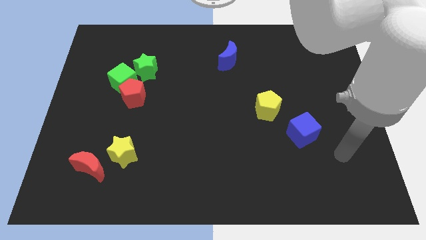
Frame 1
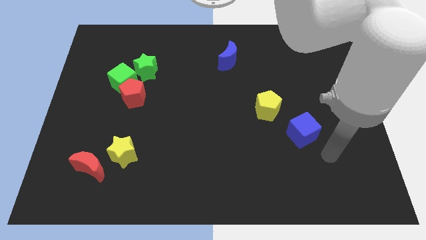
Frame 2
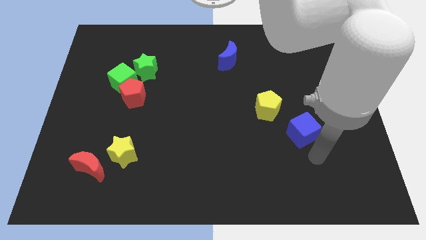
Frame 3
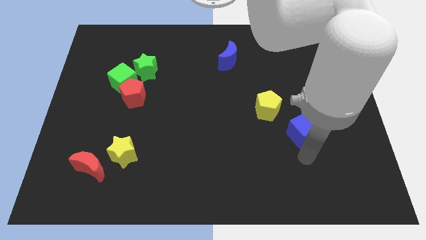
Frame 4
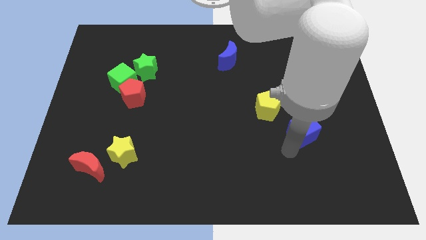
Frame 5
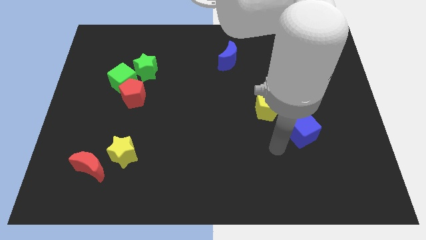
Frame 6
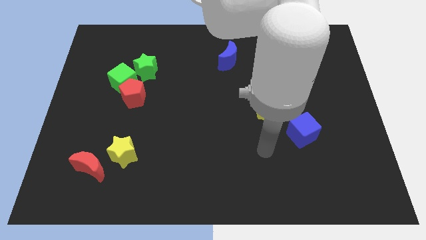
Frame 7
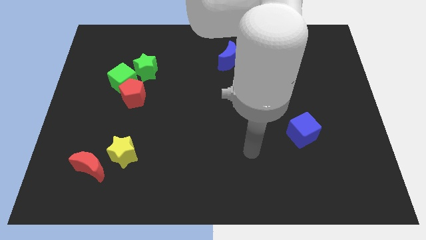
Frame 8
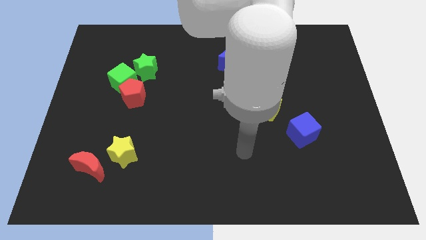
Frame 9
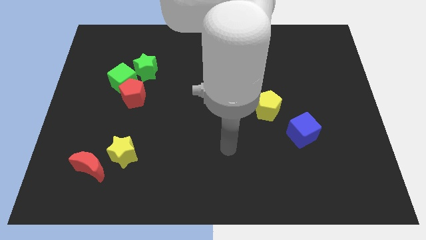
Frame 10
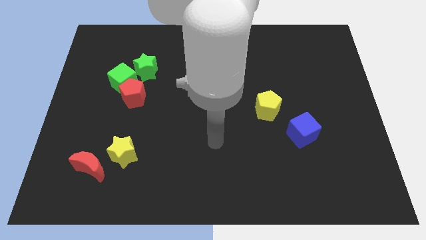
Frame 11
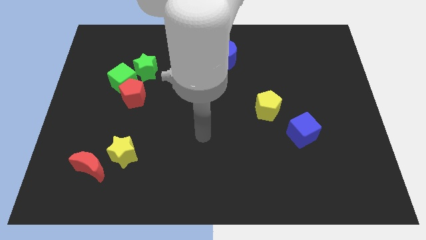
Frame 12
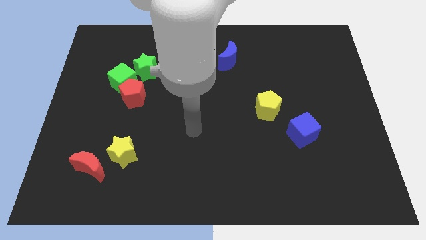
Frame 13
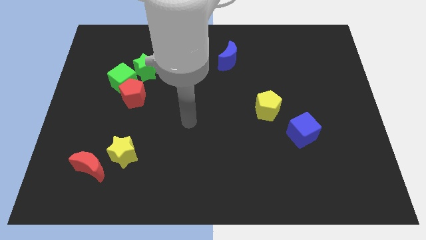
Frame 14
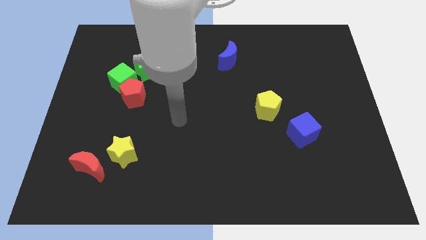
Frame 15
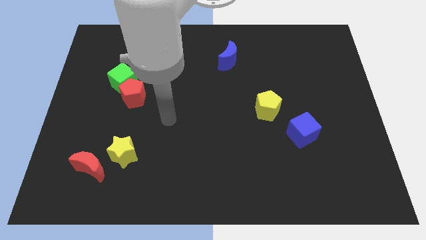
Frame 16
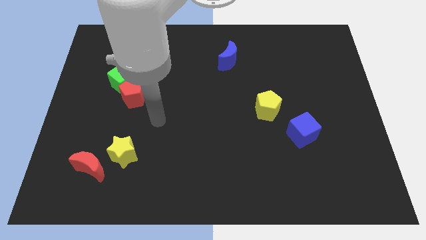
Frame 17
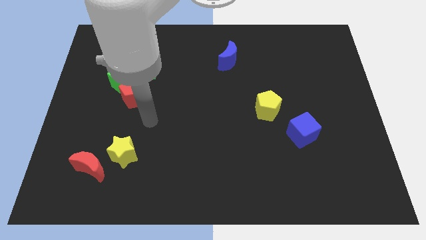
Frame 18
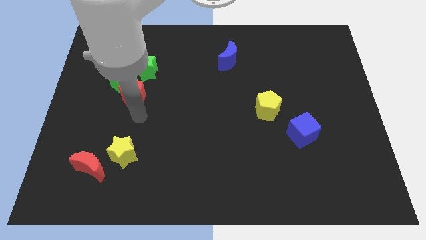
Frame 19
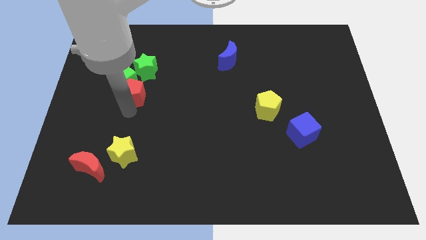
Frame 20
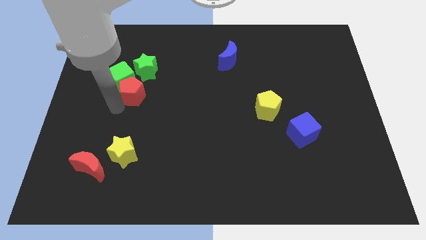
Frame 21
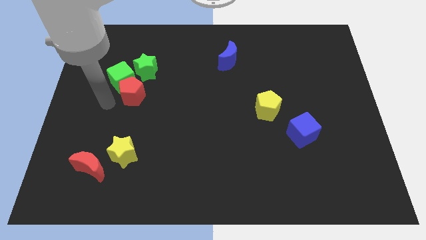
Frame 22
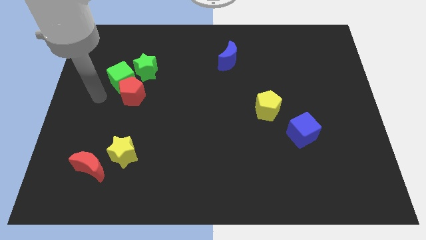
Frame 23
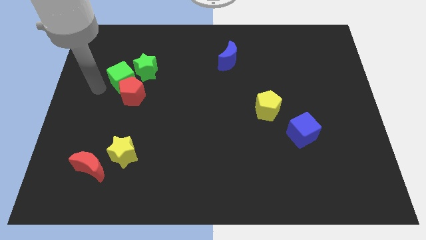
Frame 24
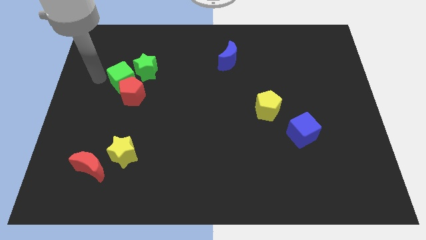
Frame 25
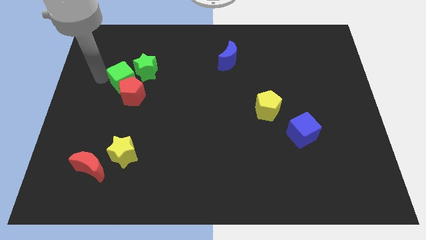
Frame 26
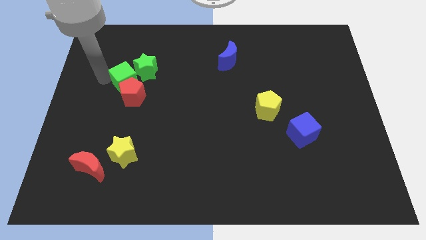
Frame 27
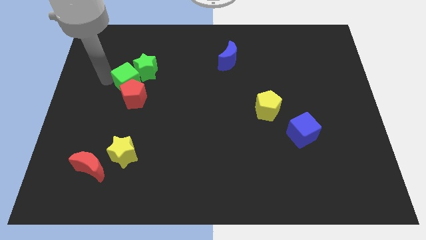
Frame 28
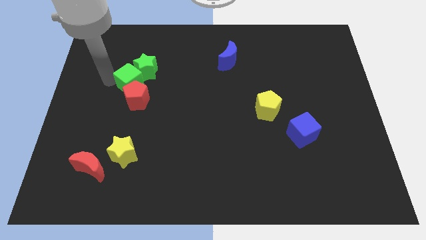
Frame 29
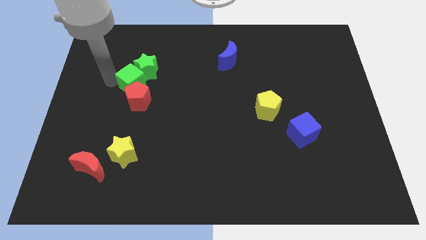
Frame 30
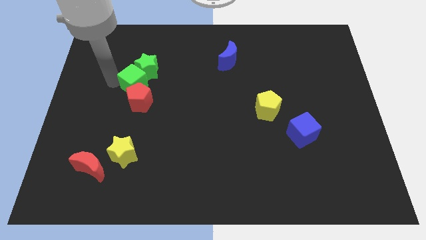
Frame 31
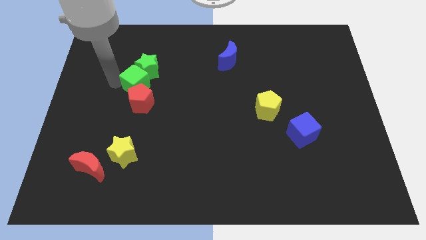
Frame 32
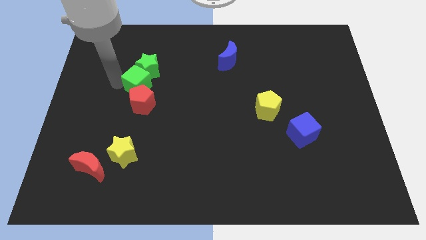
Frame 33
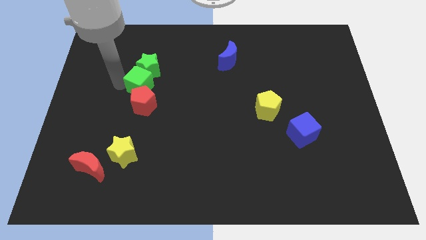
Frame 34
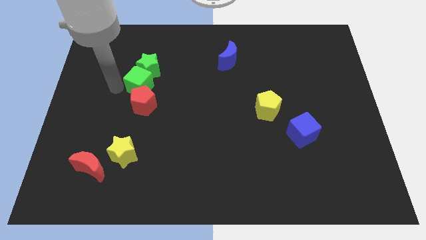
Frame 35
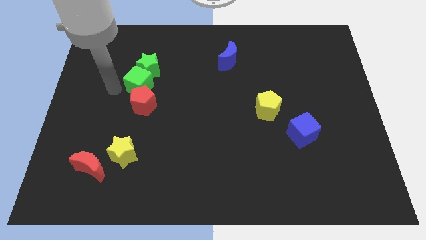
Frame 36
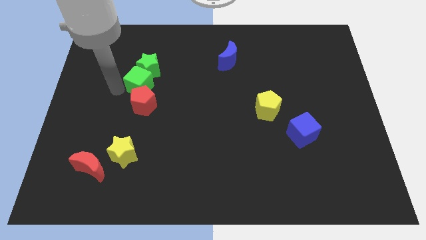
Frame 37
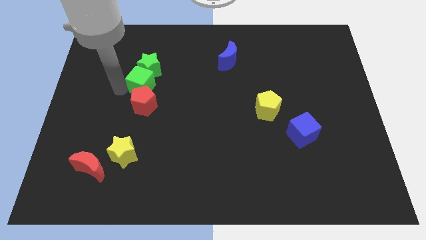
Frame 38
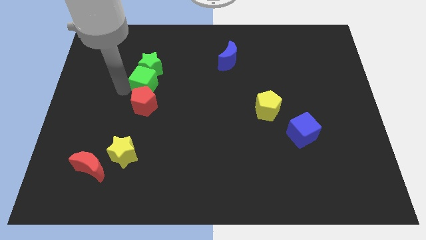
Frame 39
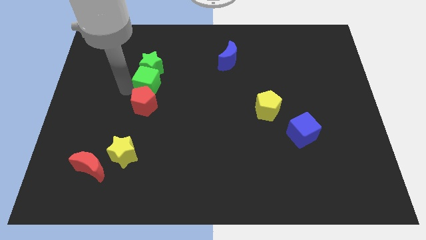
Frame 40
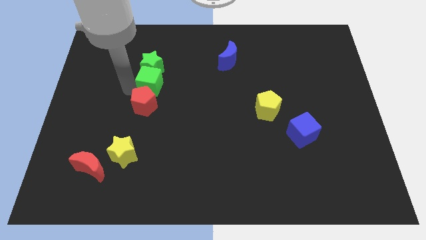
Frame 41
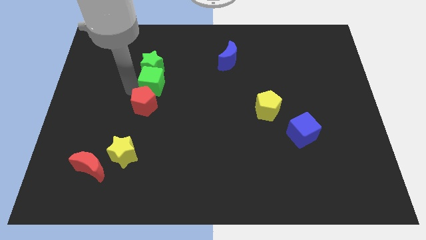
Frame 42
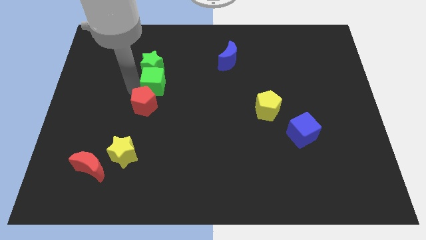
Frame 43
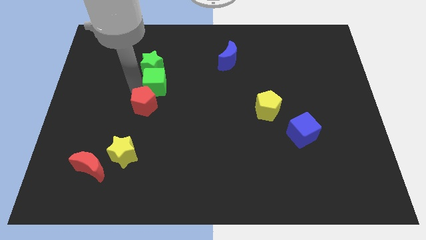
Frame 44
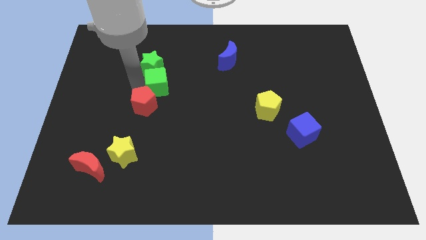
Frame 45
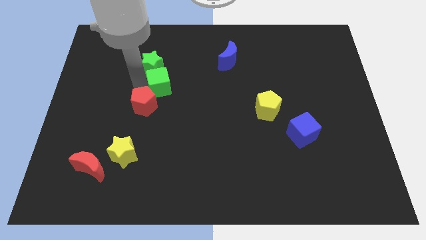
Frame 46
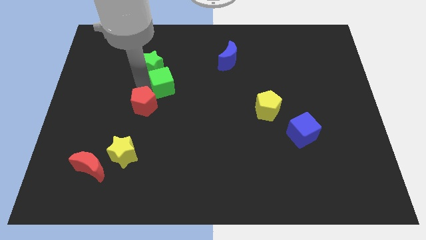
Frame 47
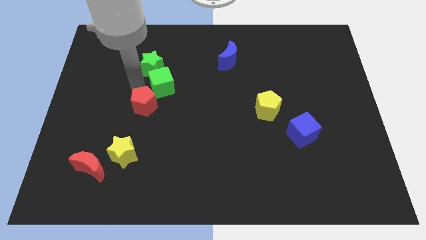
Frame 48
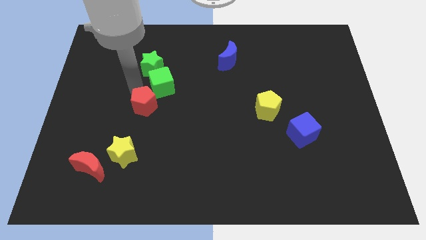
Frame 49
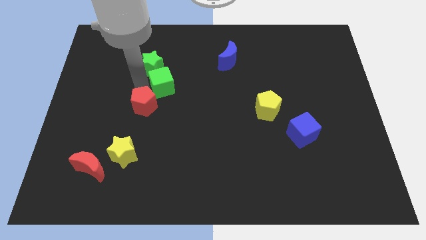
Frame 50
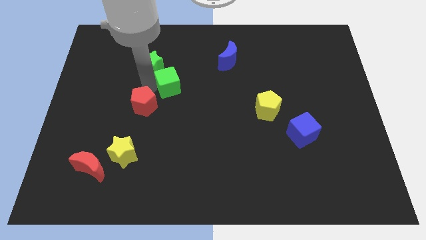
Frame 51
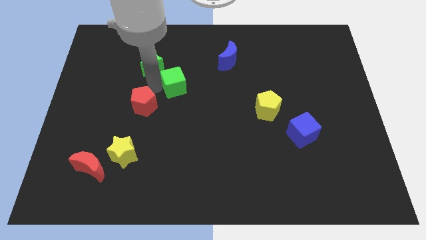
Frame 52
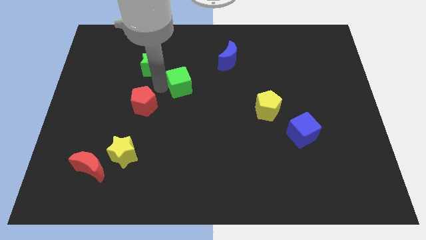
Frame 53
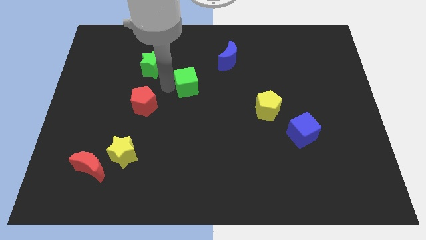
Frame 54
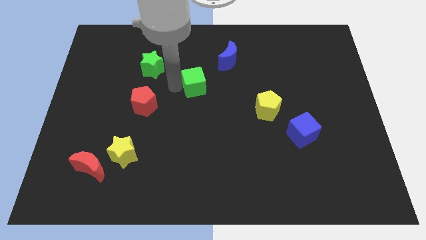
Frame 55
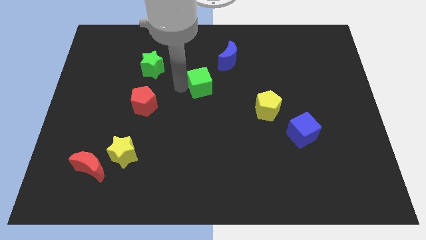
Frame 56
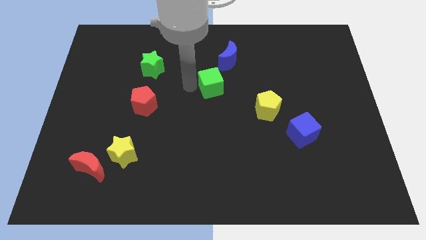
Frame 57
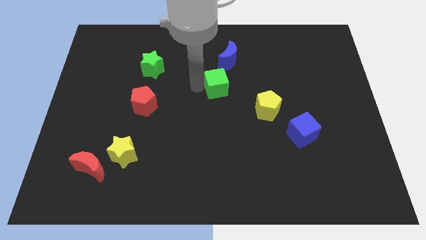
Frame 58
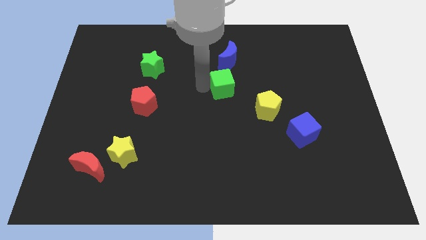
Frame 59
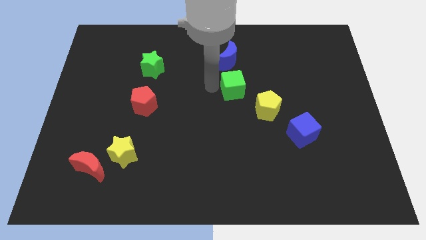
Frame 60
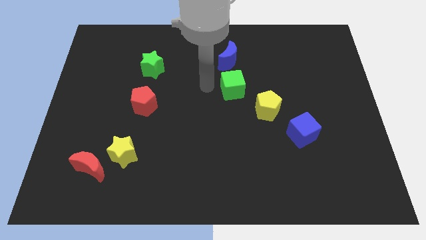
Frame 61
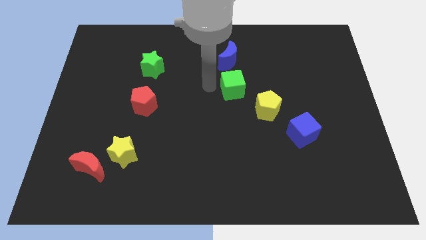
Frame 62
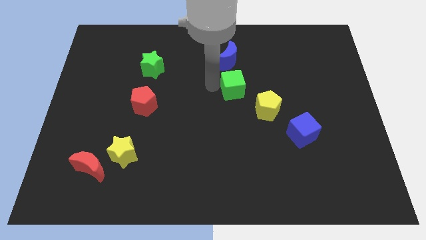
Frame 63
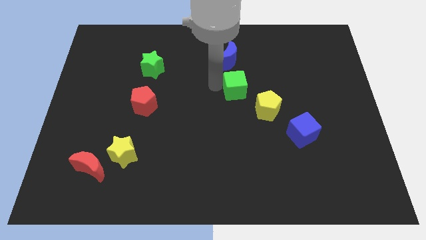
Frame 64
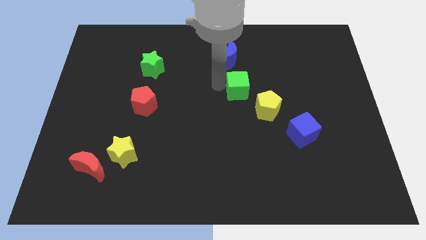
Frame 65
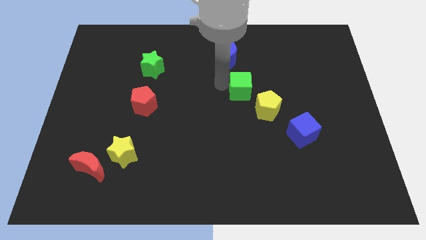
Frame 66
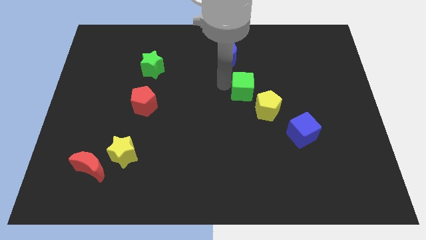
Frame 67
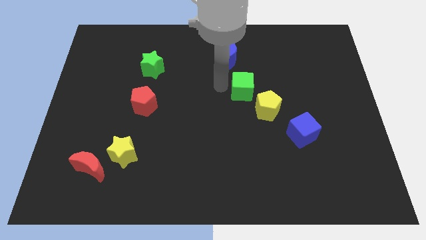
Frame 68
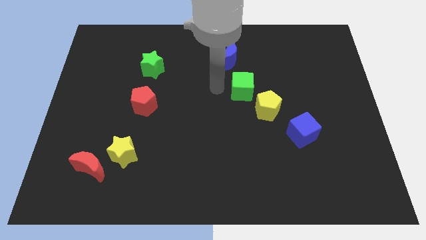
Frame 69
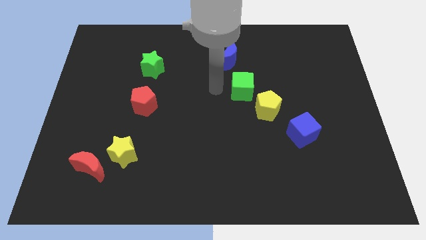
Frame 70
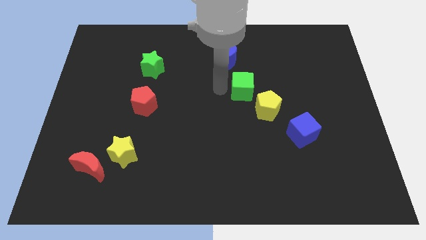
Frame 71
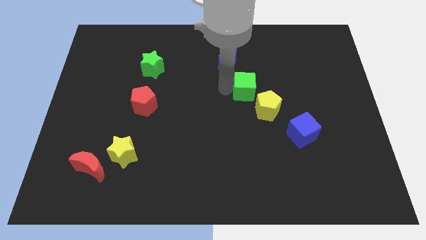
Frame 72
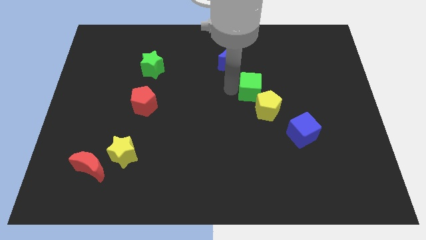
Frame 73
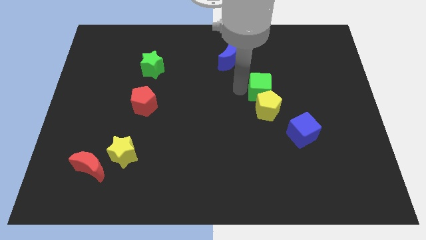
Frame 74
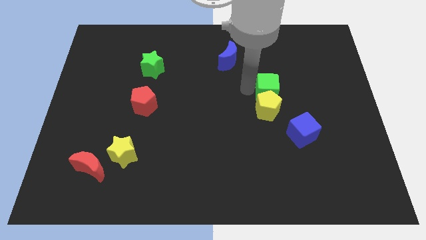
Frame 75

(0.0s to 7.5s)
push the green cube to the top right side of the yellow pentagon
